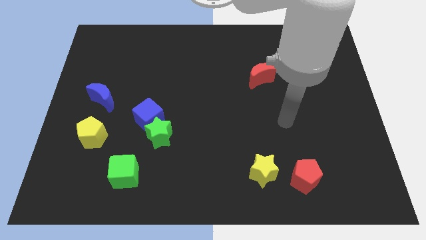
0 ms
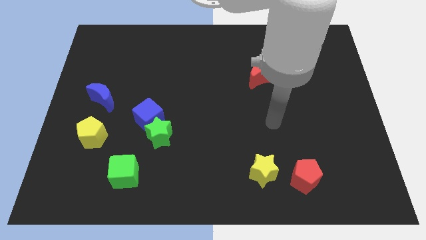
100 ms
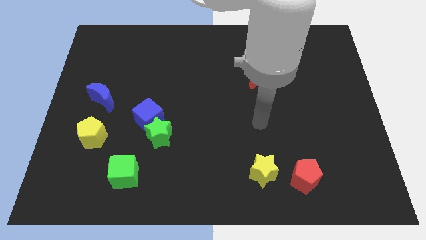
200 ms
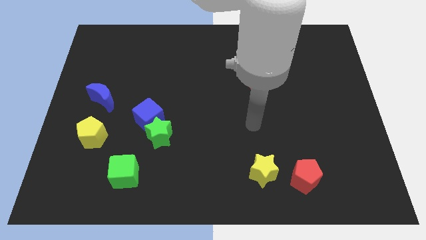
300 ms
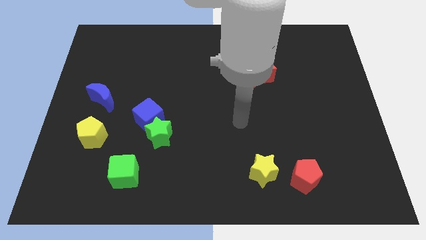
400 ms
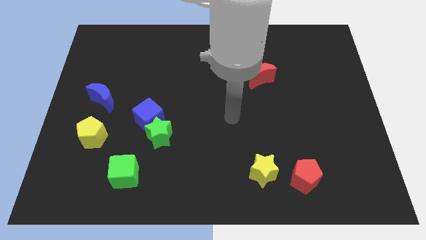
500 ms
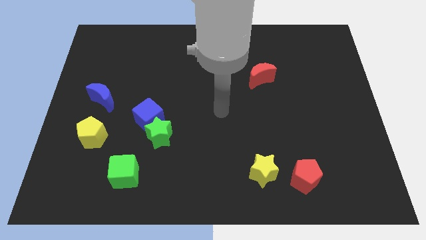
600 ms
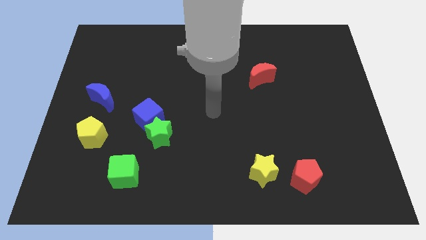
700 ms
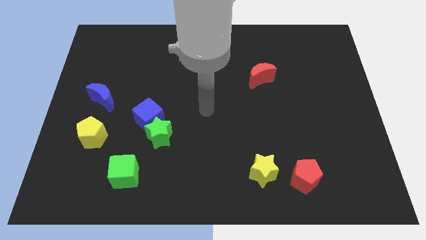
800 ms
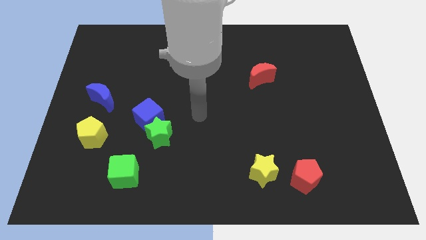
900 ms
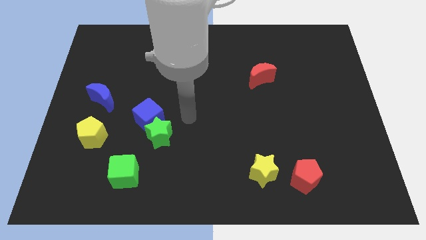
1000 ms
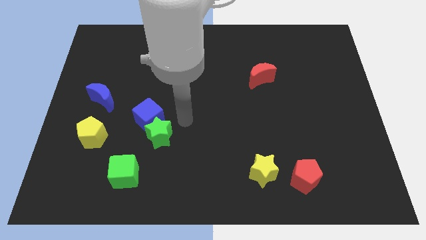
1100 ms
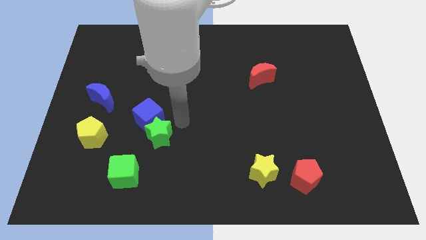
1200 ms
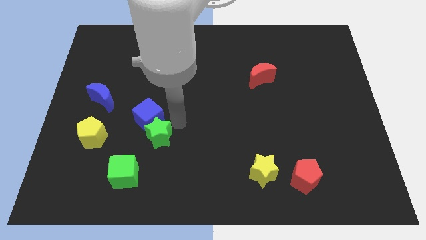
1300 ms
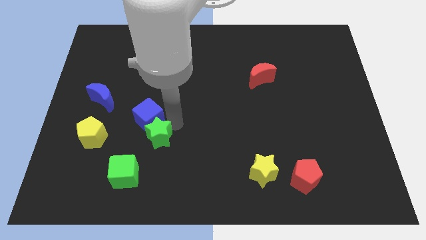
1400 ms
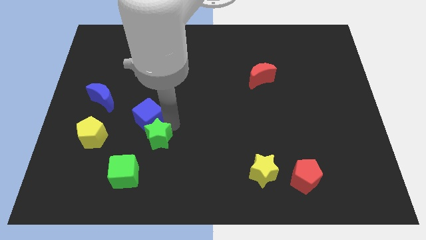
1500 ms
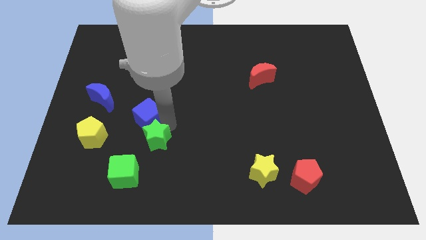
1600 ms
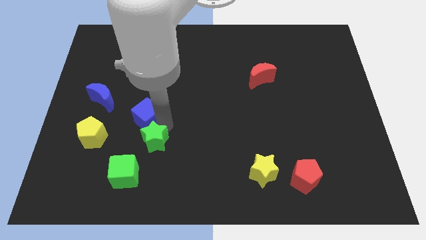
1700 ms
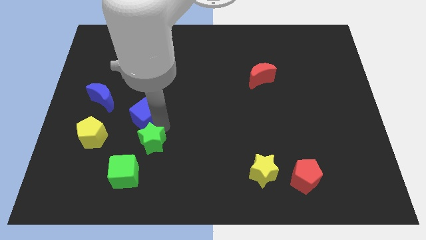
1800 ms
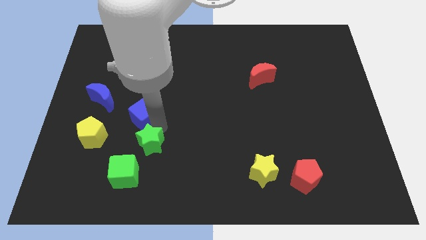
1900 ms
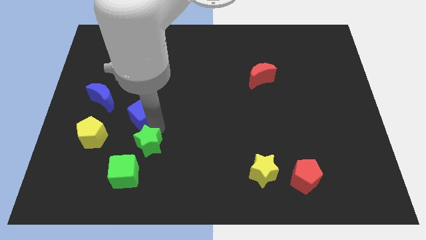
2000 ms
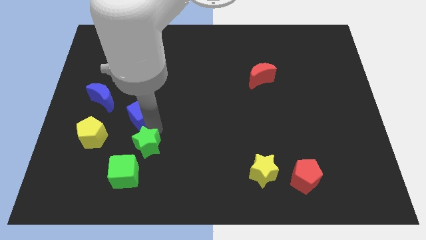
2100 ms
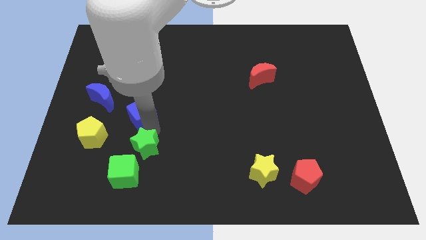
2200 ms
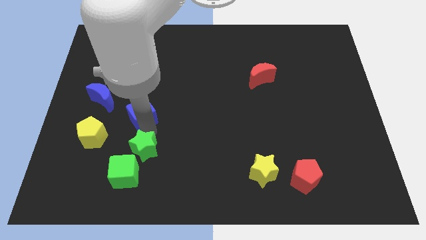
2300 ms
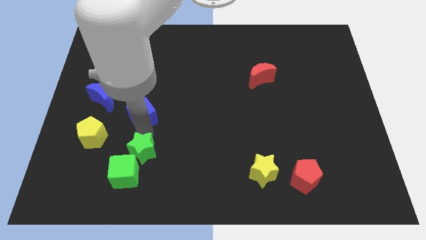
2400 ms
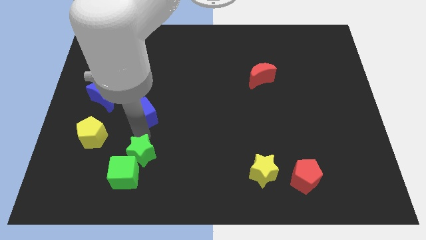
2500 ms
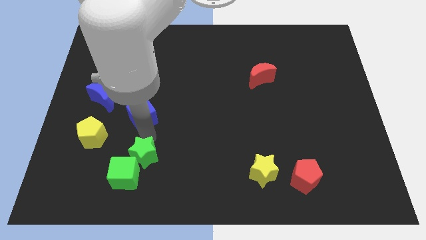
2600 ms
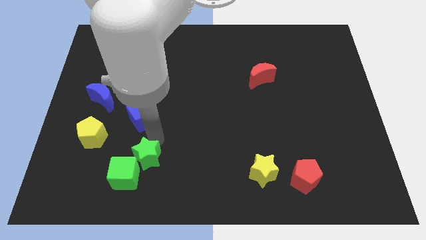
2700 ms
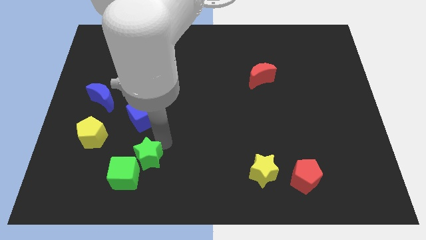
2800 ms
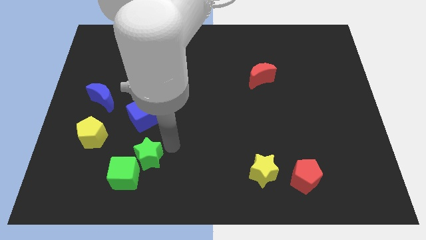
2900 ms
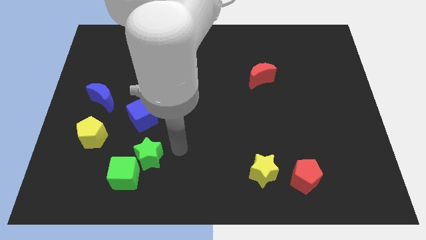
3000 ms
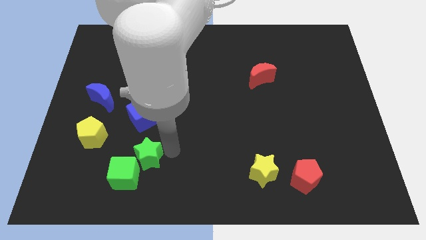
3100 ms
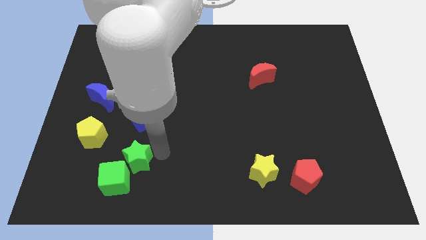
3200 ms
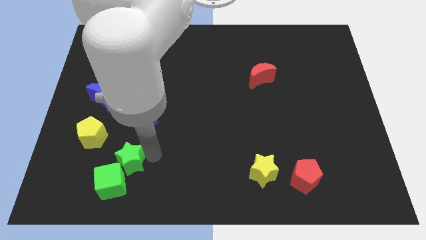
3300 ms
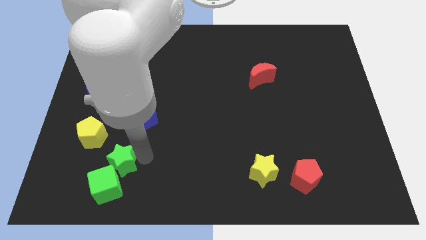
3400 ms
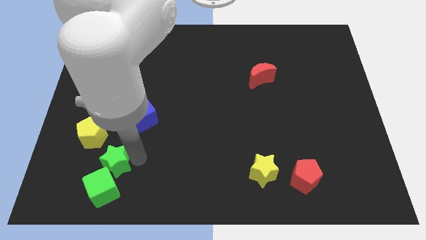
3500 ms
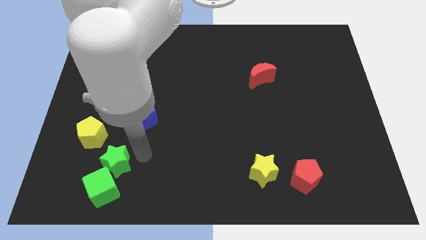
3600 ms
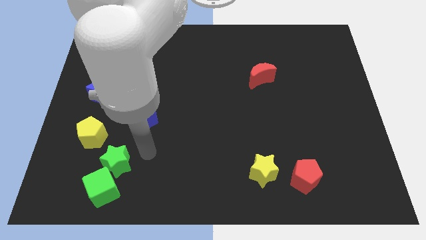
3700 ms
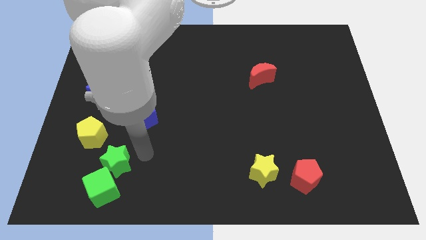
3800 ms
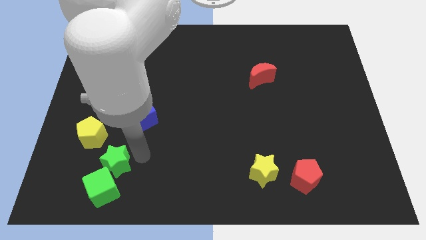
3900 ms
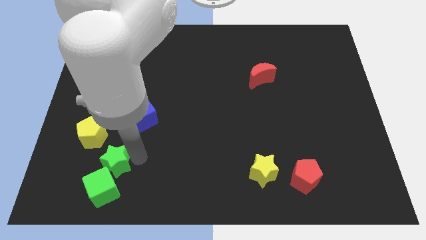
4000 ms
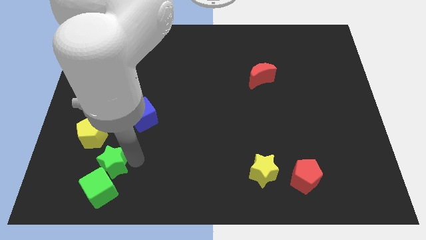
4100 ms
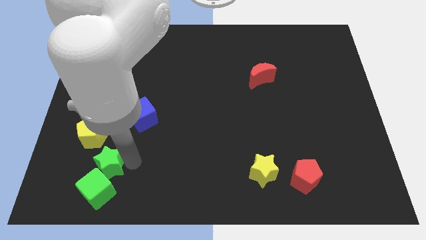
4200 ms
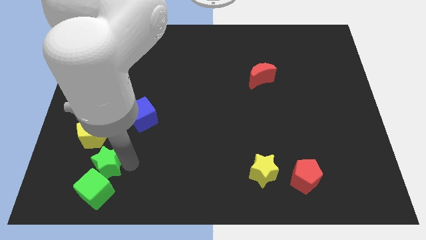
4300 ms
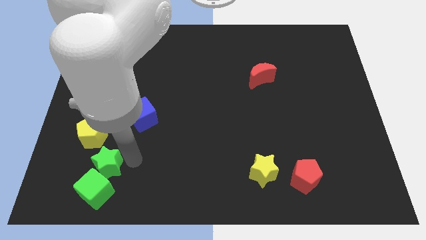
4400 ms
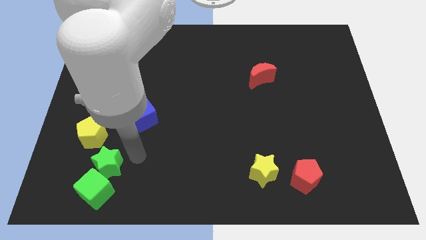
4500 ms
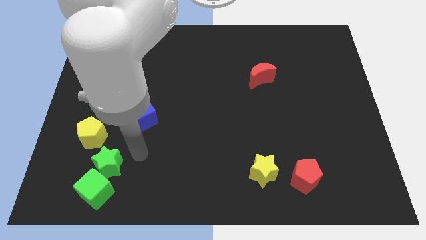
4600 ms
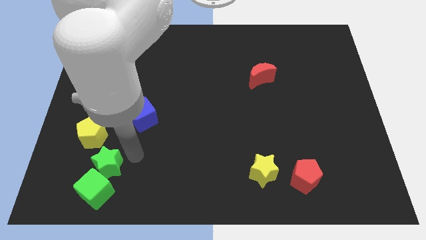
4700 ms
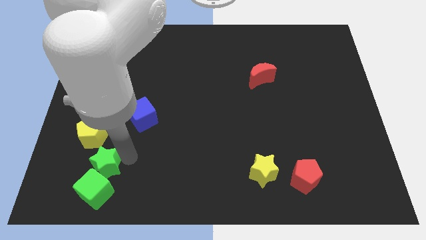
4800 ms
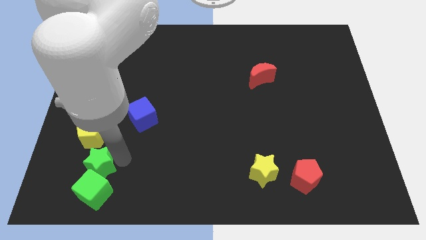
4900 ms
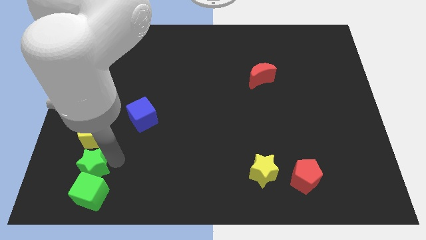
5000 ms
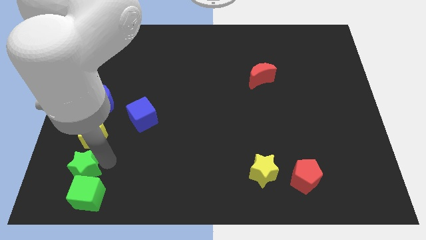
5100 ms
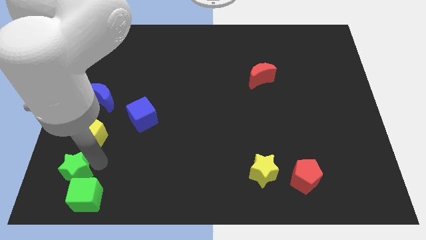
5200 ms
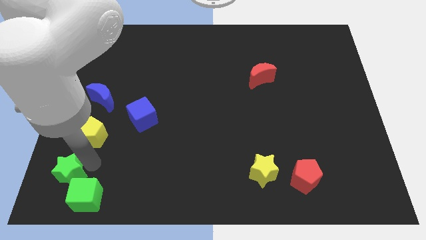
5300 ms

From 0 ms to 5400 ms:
slide the green star to the bottom left
